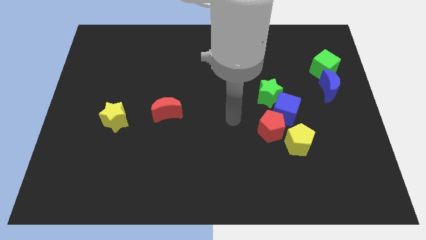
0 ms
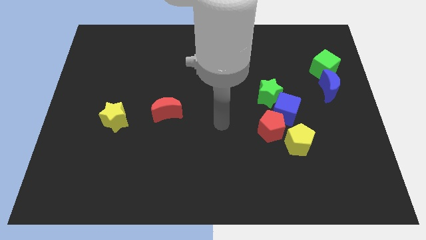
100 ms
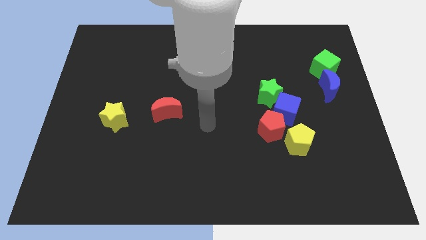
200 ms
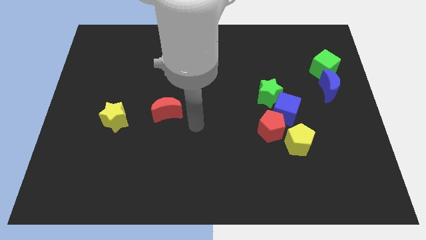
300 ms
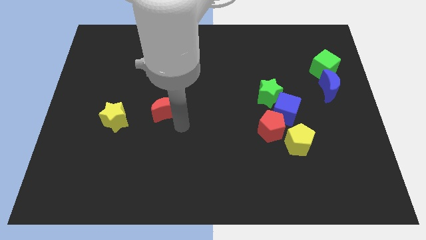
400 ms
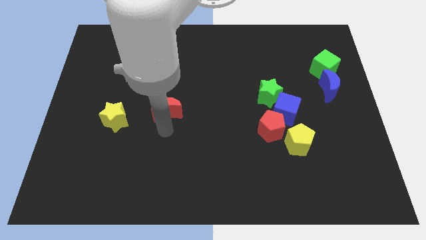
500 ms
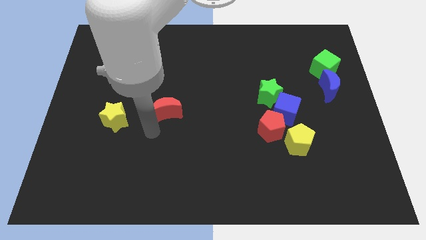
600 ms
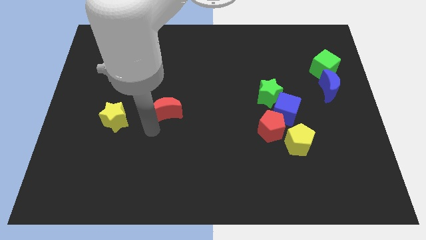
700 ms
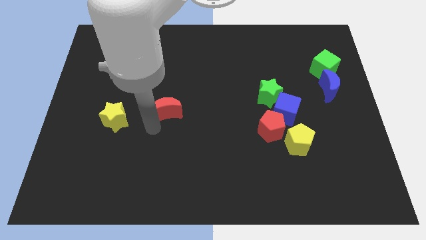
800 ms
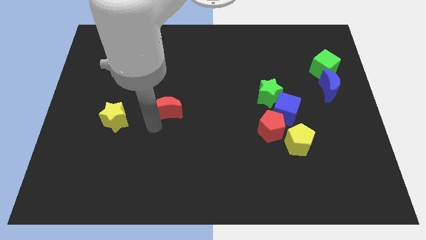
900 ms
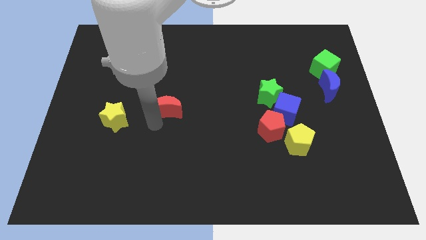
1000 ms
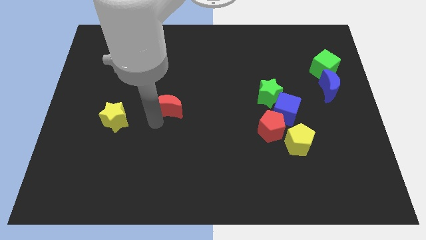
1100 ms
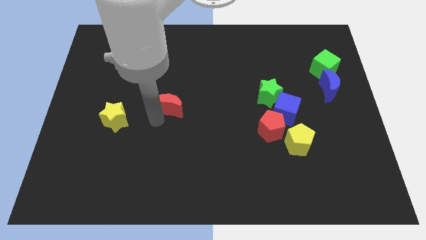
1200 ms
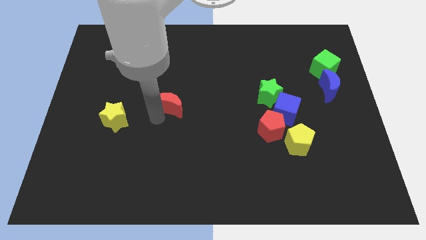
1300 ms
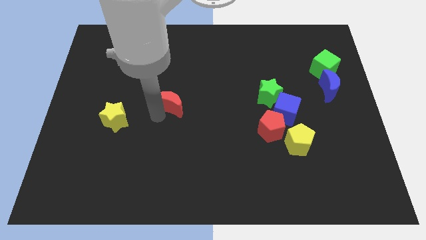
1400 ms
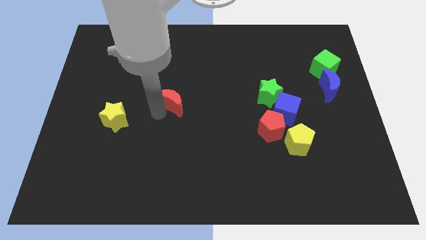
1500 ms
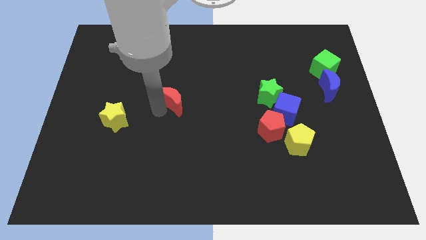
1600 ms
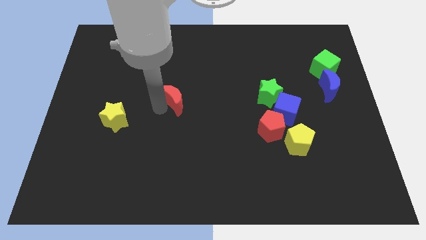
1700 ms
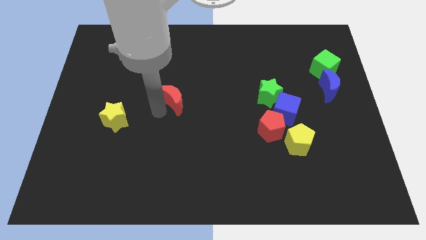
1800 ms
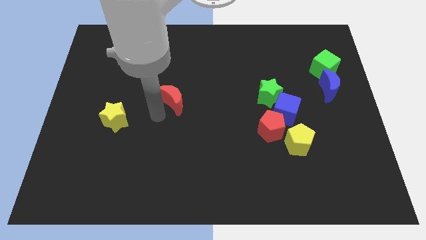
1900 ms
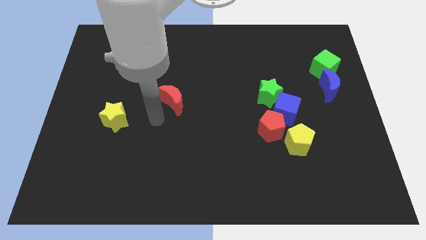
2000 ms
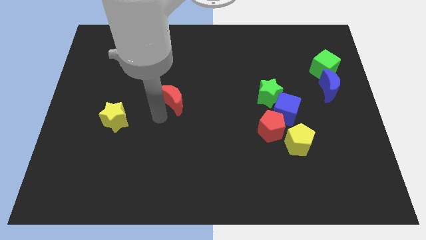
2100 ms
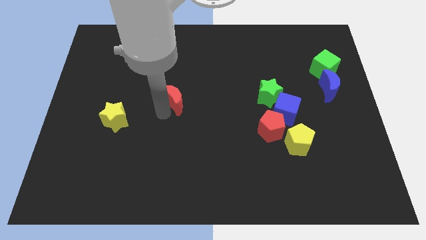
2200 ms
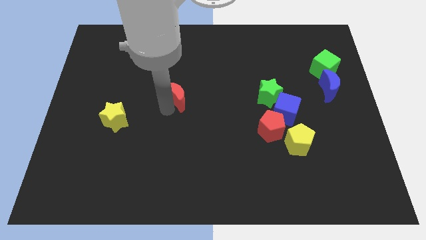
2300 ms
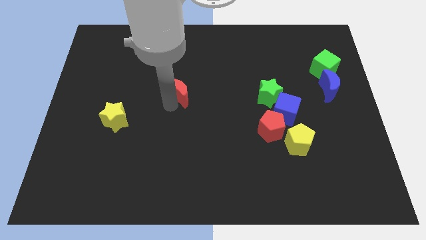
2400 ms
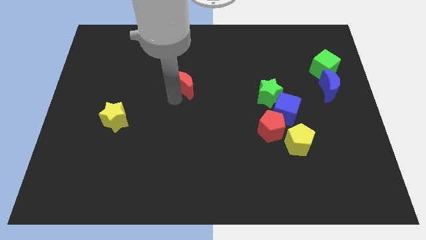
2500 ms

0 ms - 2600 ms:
slightly move the red moon diagonally up and right

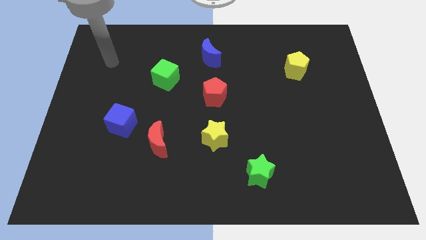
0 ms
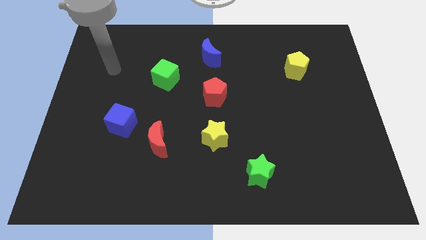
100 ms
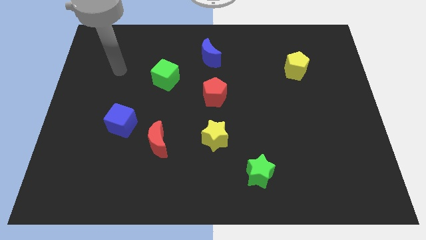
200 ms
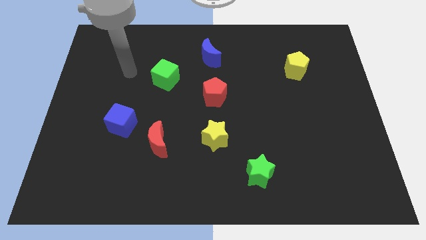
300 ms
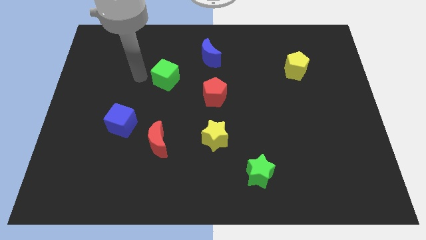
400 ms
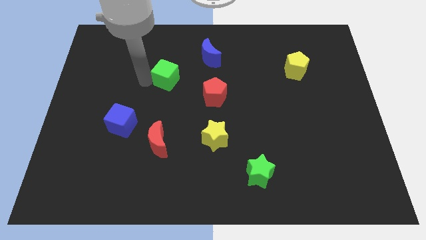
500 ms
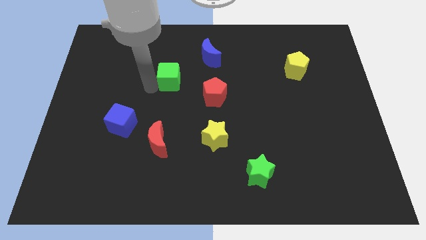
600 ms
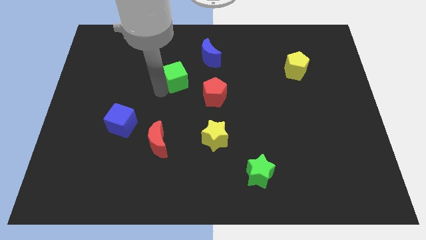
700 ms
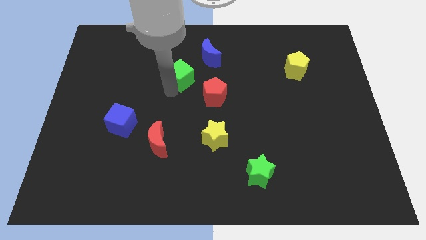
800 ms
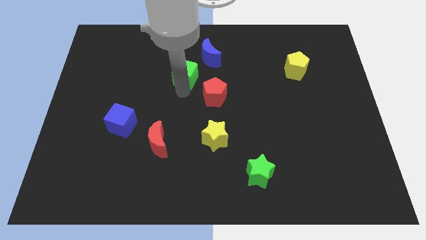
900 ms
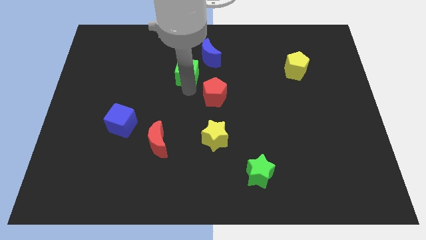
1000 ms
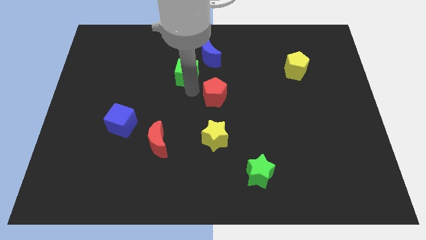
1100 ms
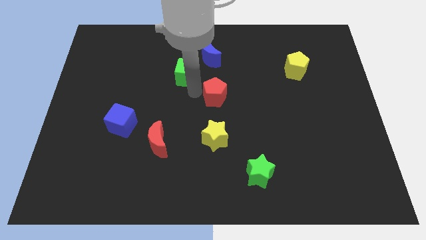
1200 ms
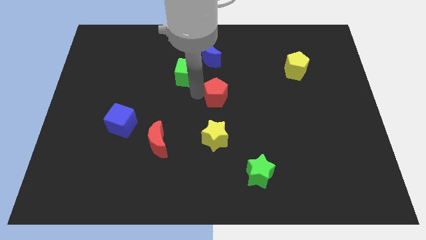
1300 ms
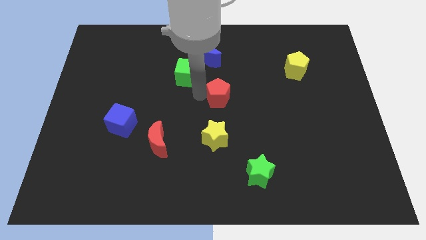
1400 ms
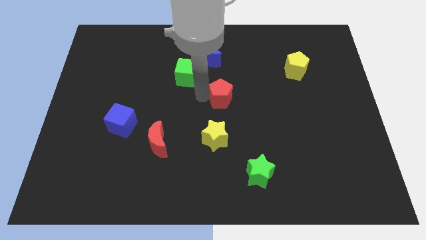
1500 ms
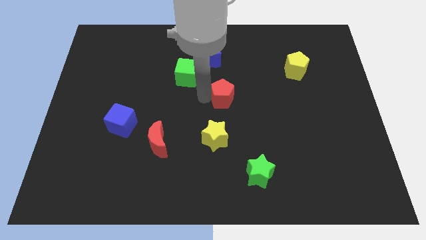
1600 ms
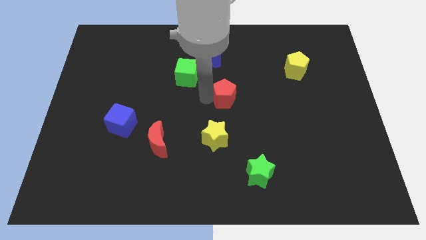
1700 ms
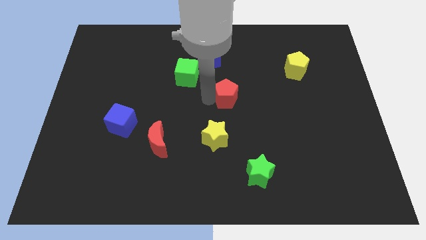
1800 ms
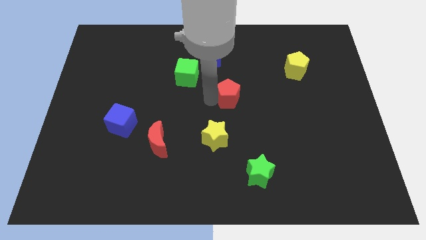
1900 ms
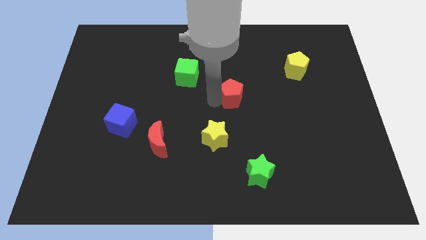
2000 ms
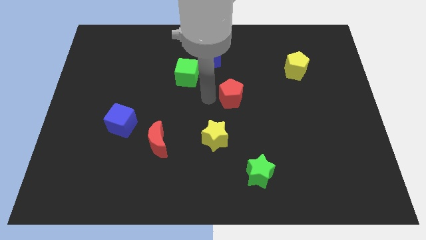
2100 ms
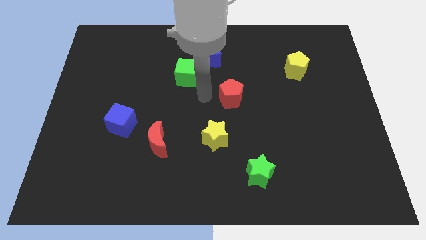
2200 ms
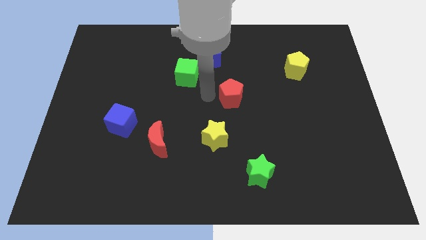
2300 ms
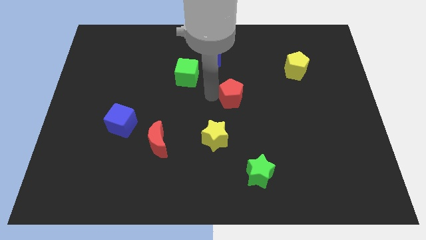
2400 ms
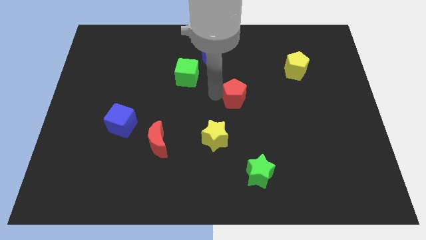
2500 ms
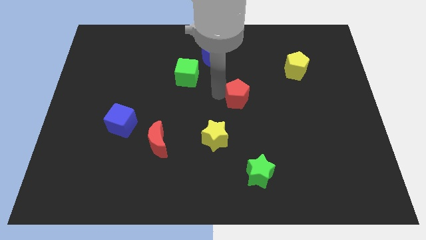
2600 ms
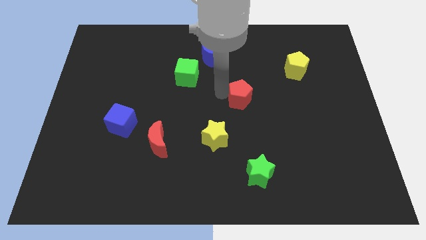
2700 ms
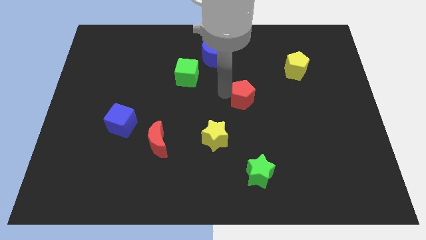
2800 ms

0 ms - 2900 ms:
slightly slide the red pentagon to the right

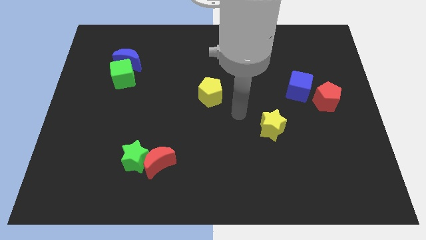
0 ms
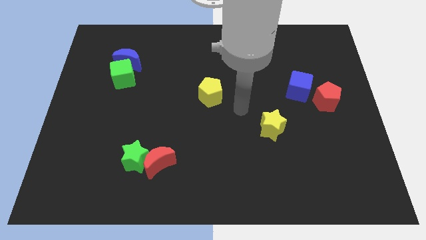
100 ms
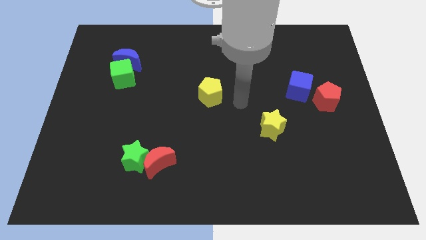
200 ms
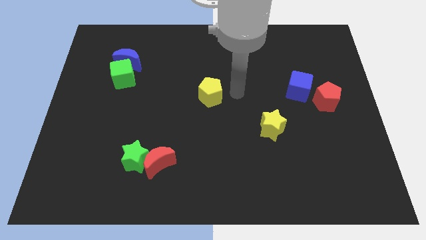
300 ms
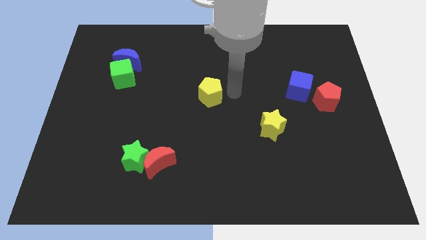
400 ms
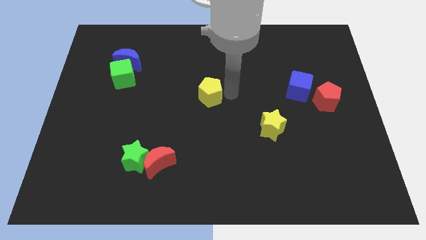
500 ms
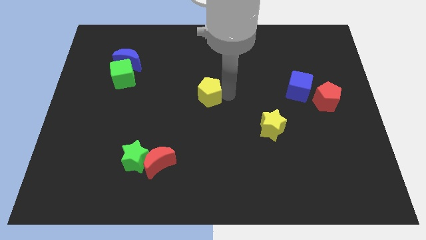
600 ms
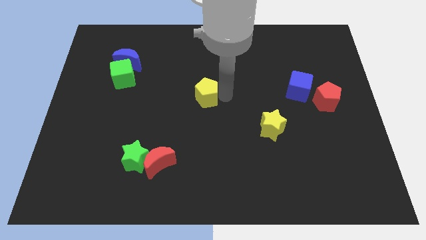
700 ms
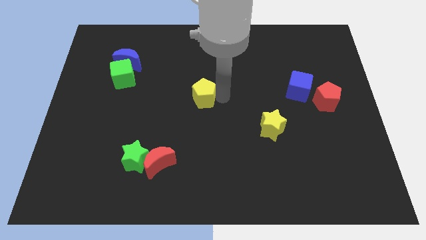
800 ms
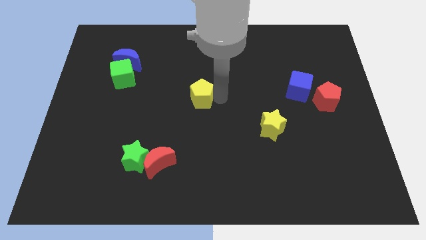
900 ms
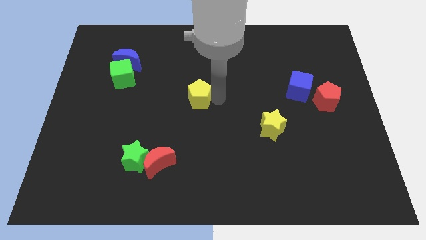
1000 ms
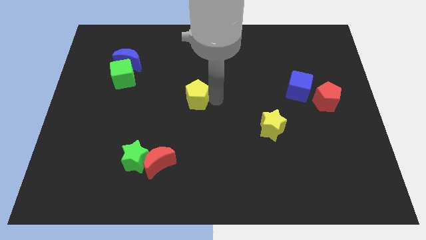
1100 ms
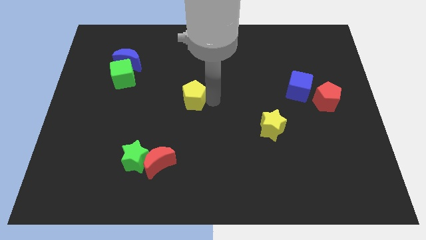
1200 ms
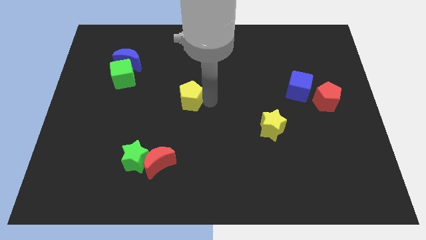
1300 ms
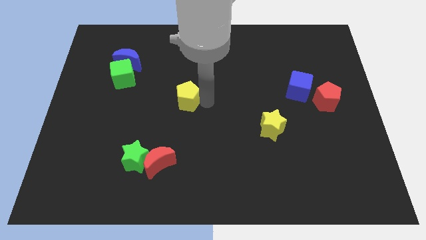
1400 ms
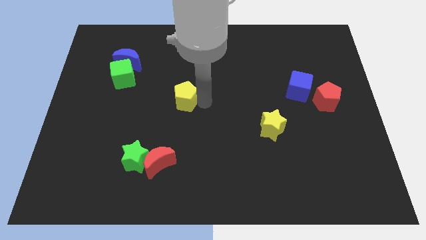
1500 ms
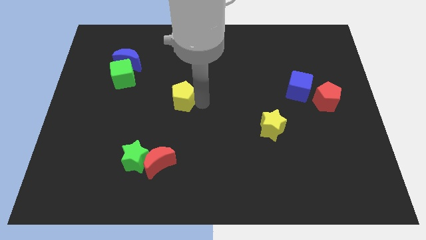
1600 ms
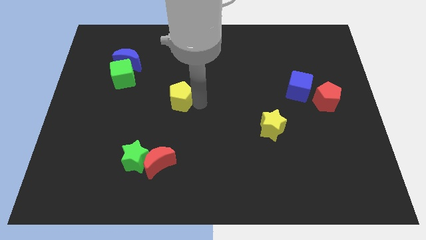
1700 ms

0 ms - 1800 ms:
push the yellow pentagon left a little bit

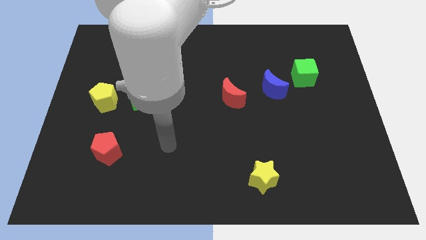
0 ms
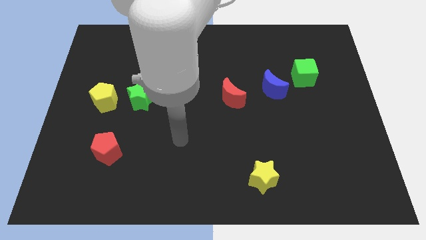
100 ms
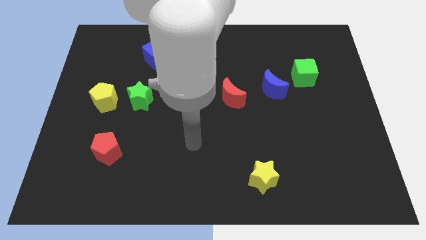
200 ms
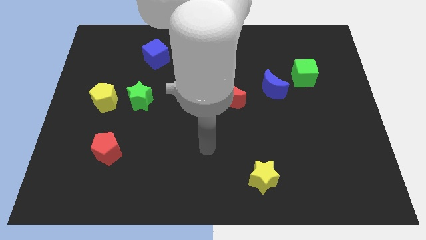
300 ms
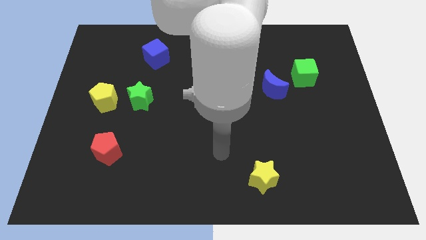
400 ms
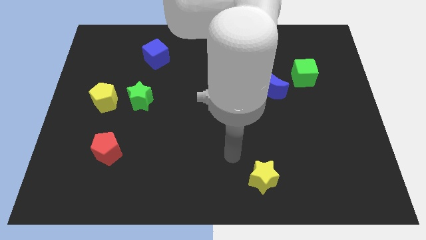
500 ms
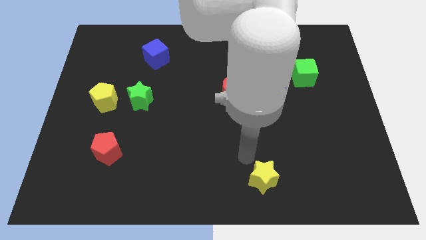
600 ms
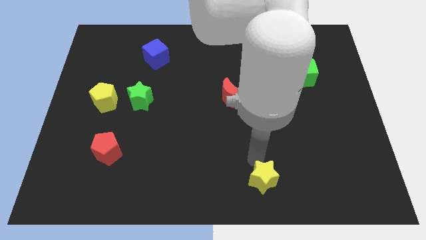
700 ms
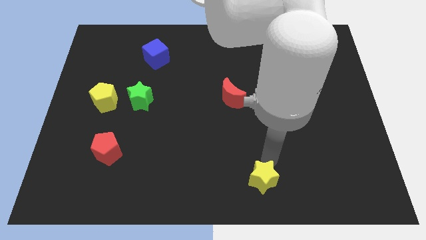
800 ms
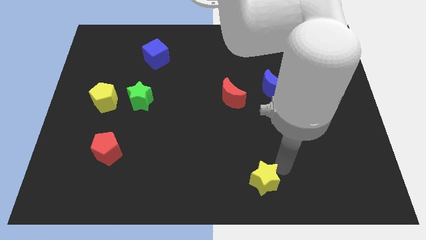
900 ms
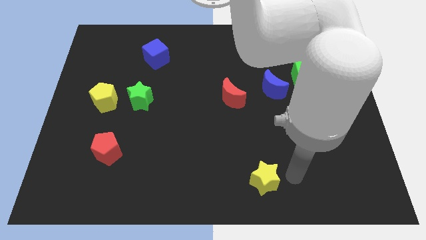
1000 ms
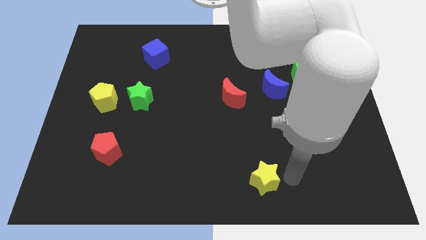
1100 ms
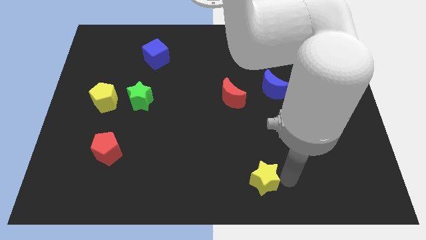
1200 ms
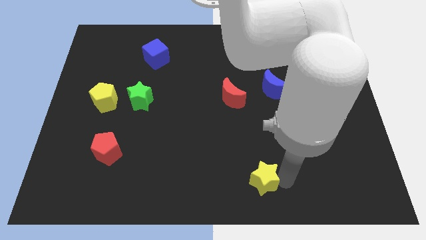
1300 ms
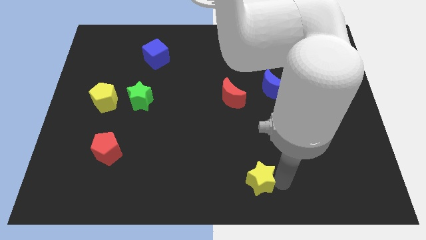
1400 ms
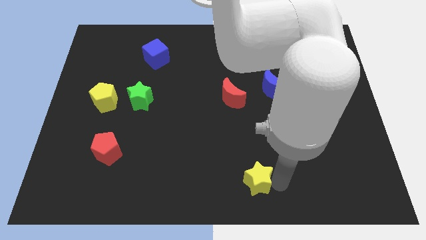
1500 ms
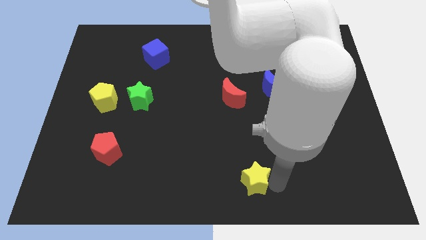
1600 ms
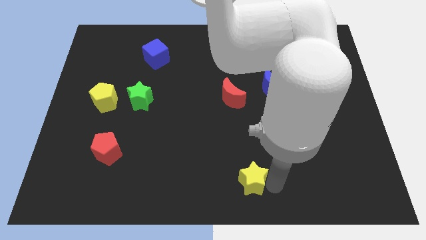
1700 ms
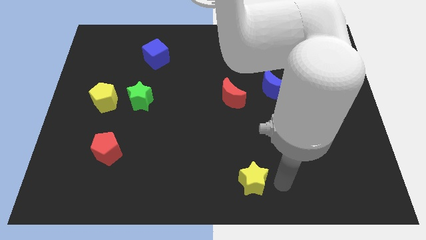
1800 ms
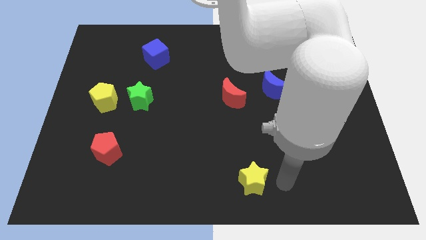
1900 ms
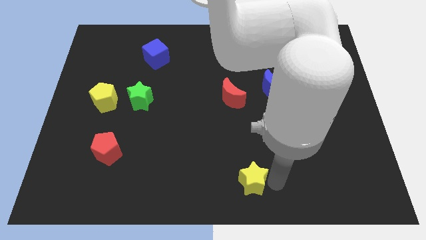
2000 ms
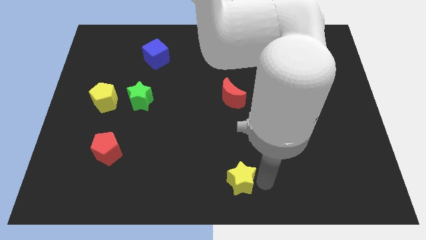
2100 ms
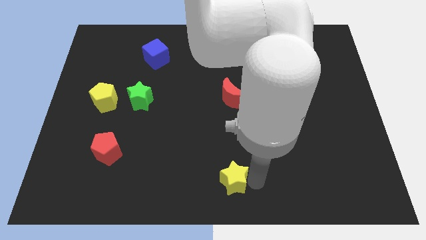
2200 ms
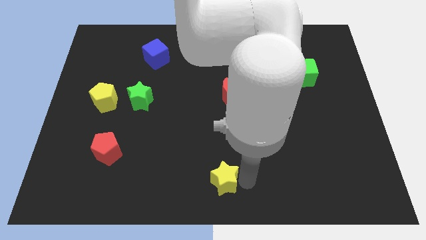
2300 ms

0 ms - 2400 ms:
move the yellow star left a little bit
